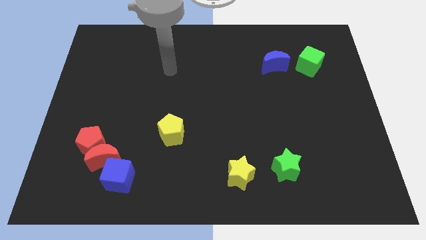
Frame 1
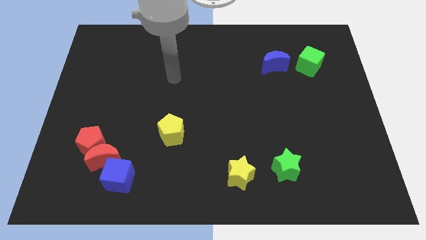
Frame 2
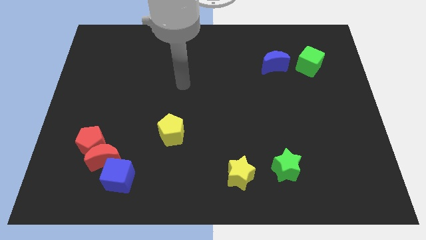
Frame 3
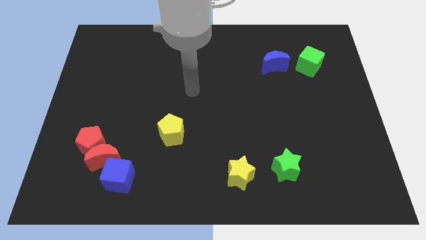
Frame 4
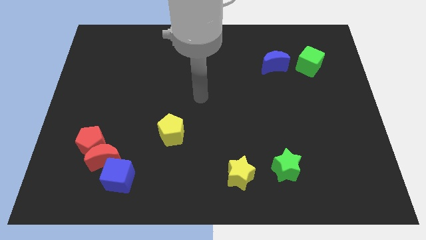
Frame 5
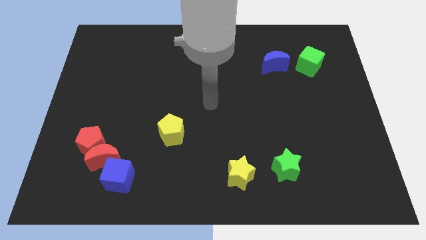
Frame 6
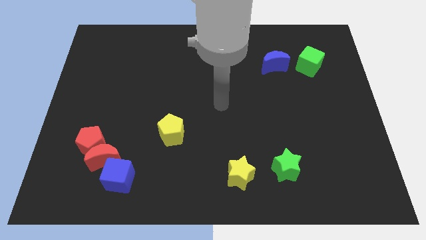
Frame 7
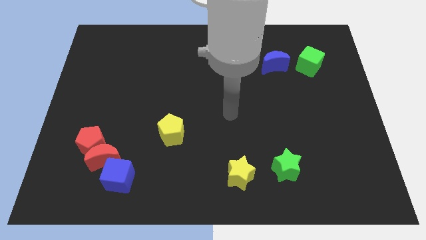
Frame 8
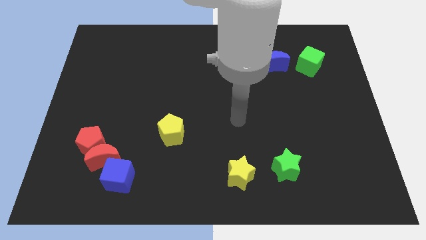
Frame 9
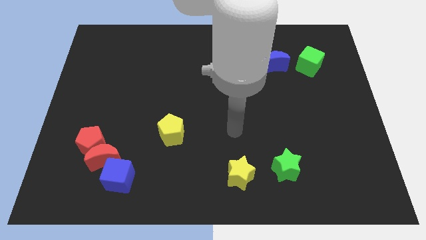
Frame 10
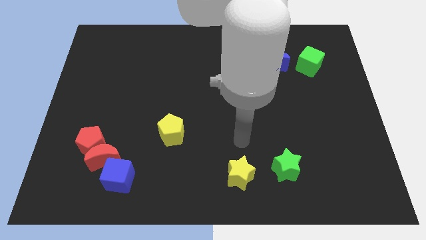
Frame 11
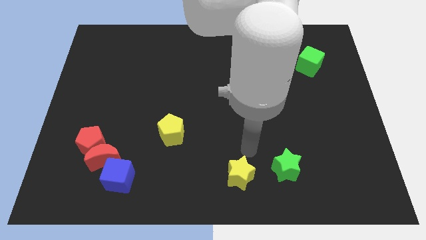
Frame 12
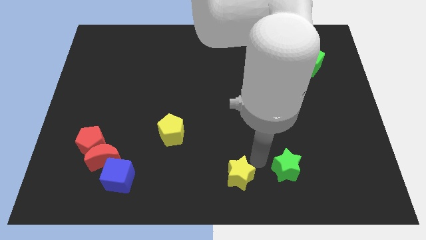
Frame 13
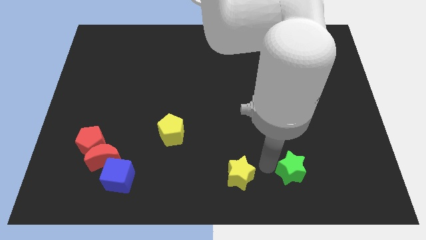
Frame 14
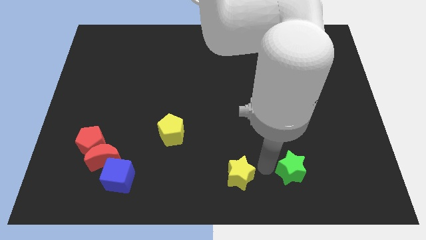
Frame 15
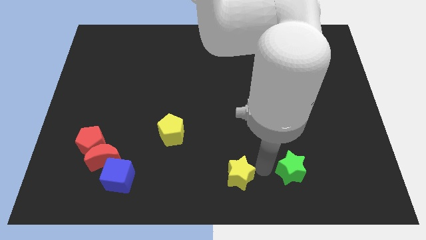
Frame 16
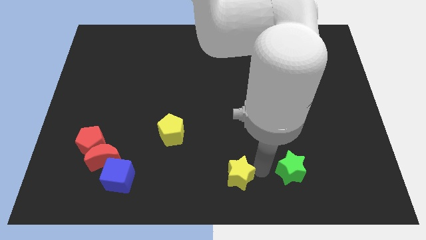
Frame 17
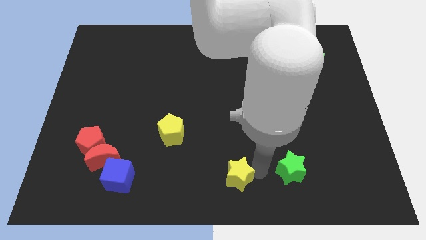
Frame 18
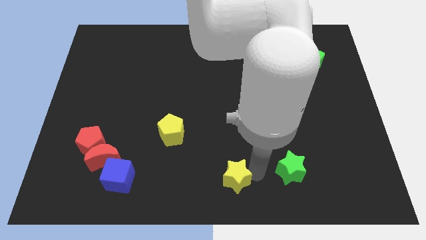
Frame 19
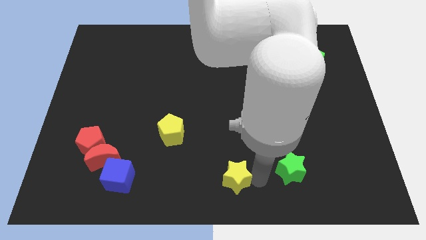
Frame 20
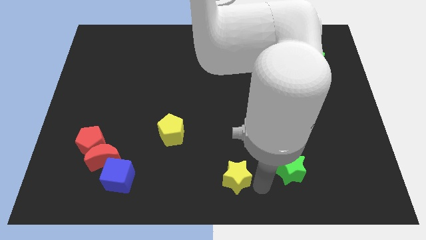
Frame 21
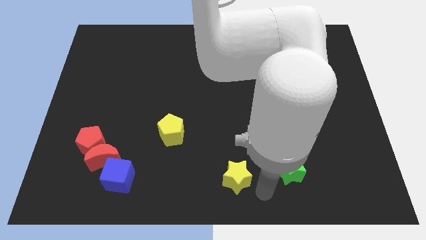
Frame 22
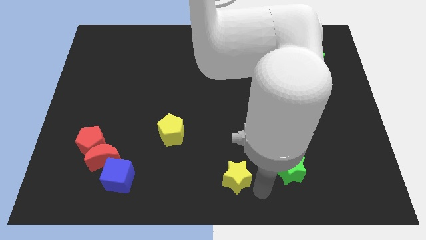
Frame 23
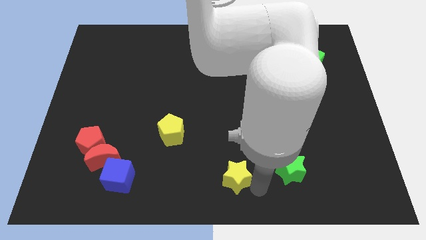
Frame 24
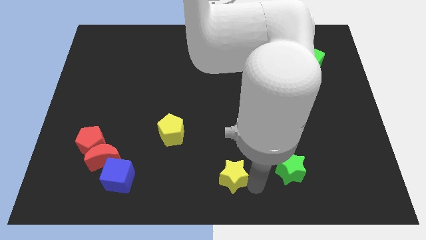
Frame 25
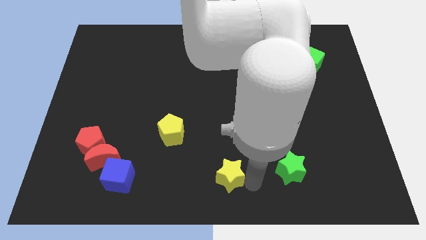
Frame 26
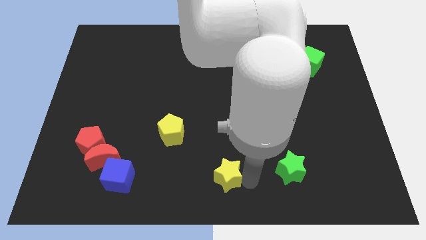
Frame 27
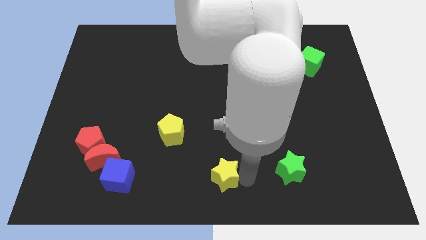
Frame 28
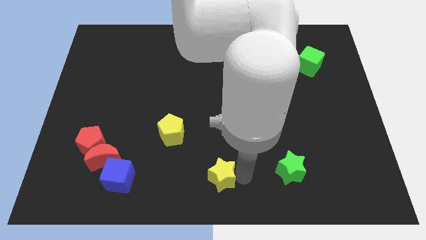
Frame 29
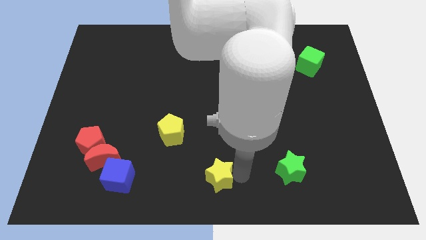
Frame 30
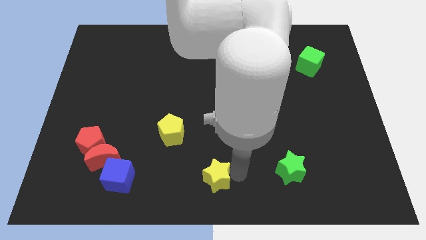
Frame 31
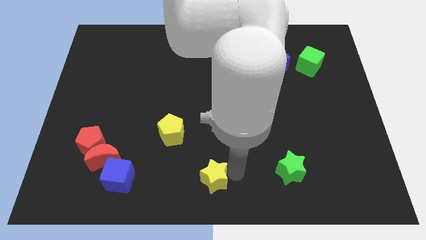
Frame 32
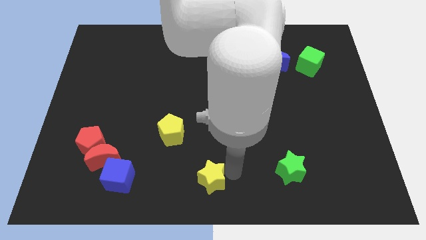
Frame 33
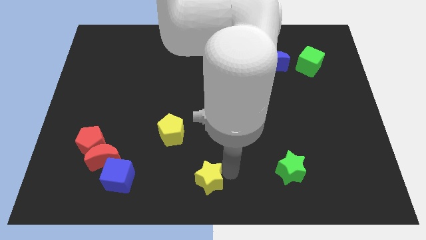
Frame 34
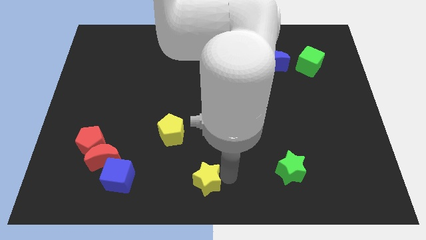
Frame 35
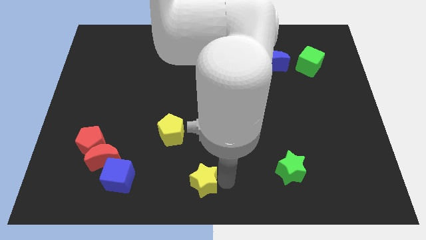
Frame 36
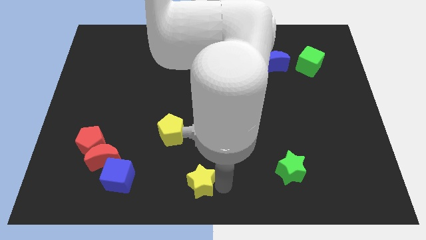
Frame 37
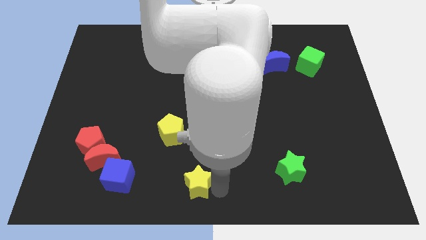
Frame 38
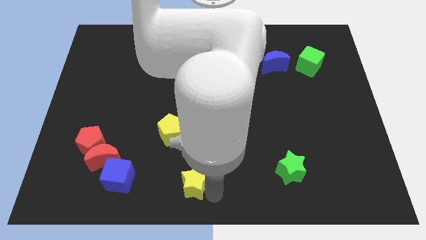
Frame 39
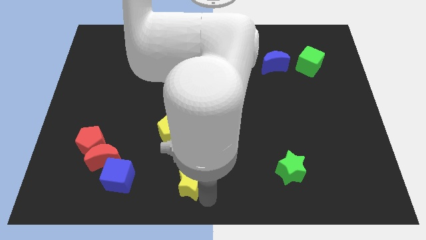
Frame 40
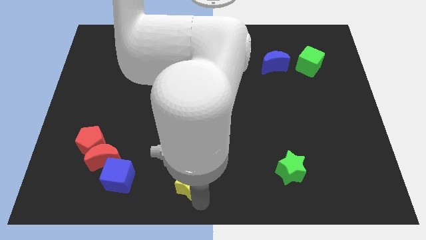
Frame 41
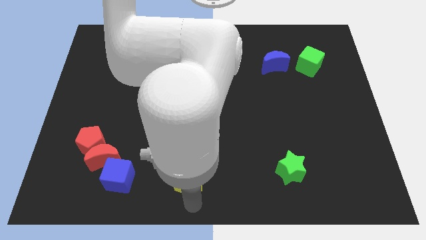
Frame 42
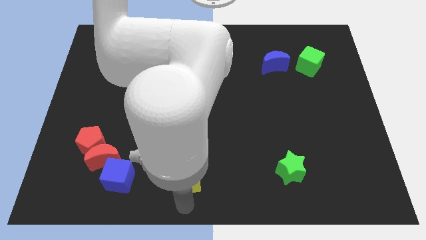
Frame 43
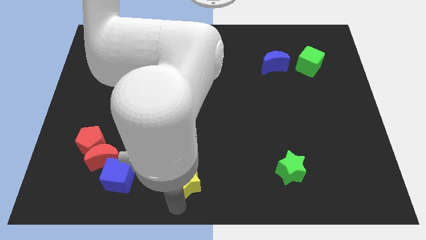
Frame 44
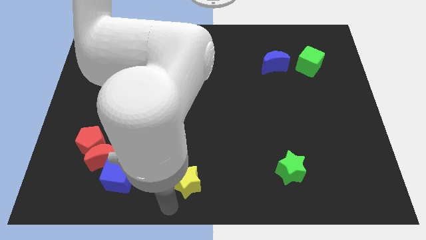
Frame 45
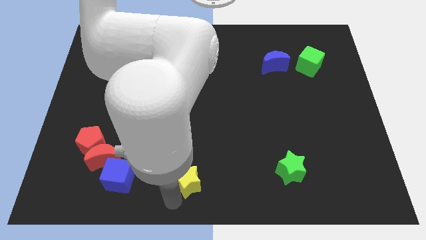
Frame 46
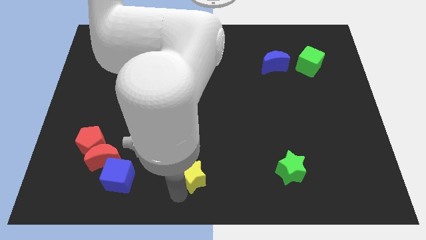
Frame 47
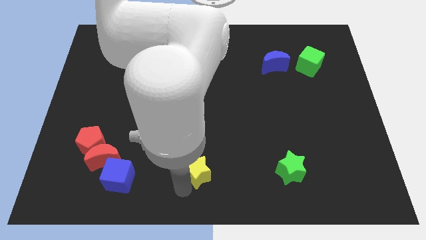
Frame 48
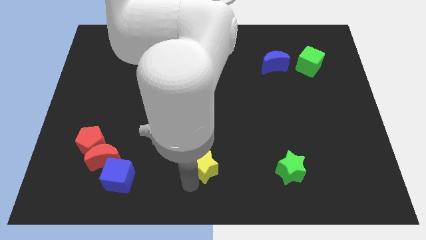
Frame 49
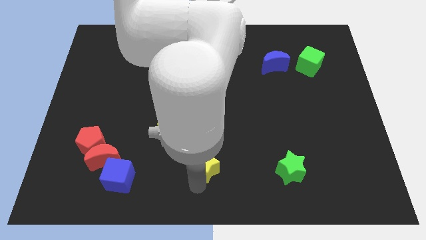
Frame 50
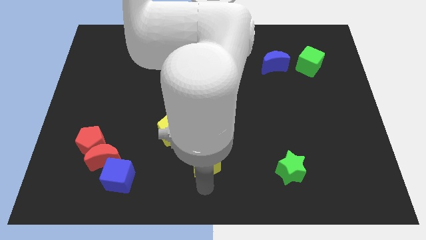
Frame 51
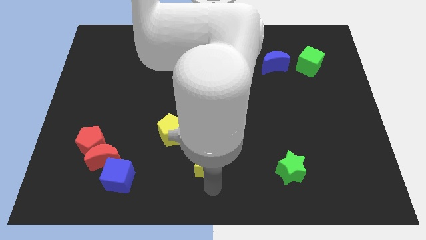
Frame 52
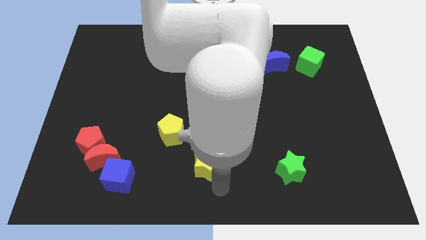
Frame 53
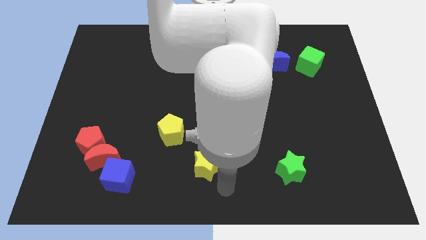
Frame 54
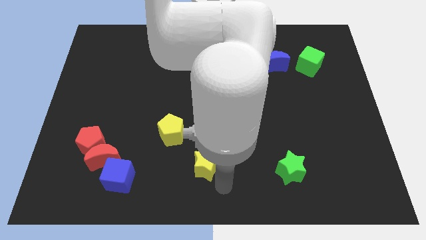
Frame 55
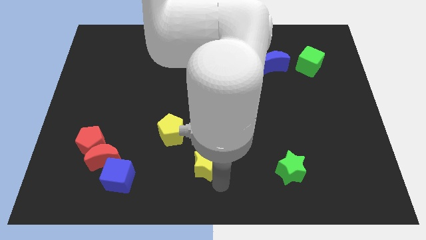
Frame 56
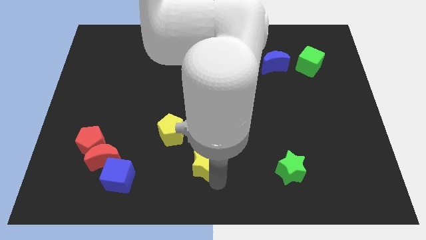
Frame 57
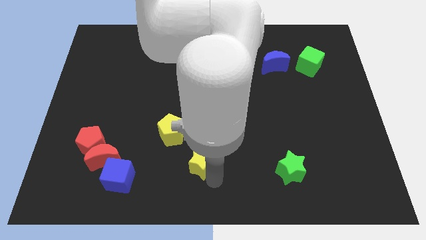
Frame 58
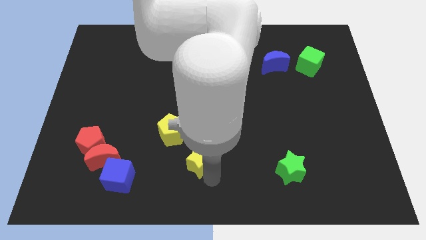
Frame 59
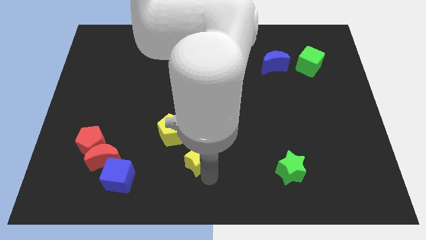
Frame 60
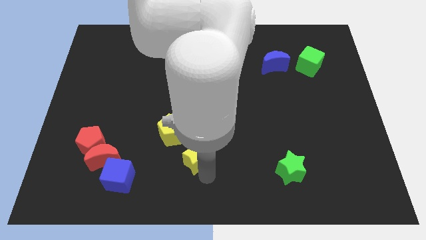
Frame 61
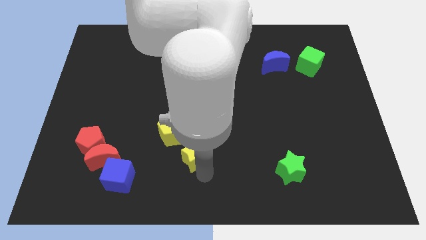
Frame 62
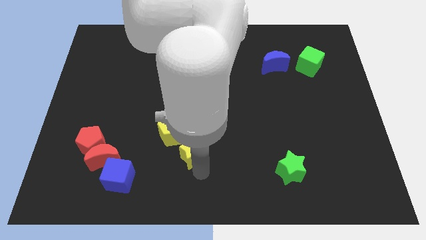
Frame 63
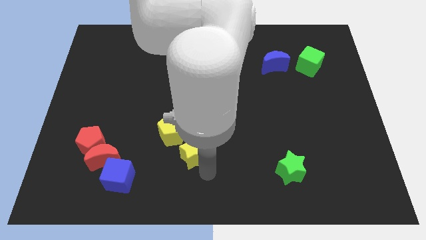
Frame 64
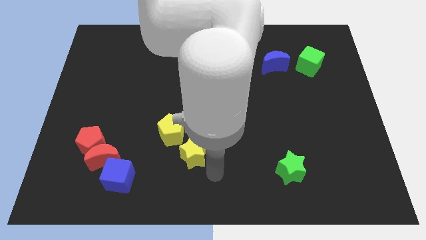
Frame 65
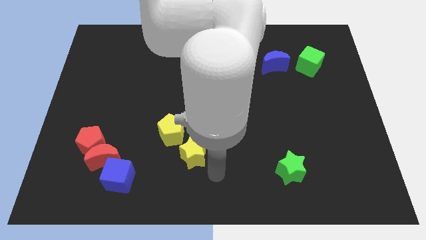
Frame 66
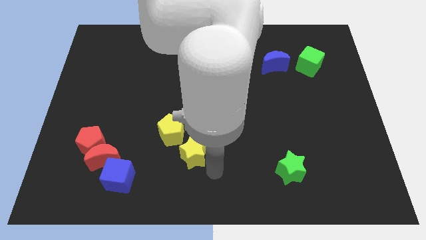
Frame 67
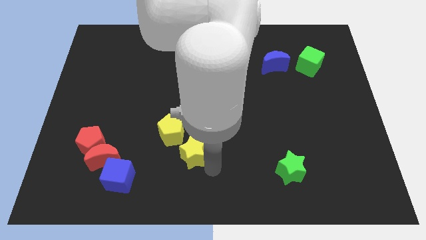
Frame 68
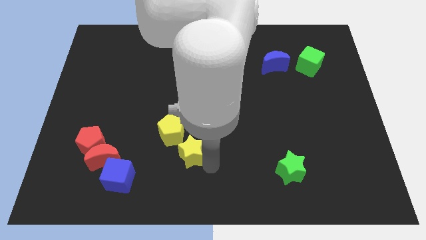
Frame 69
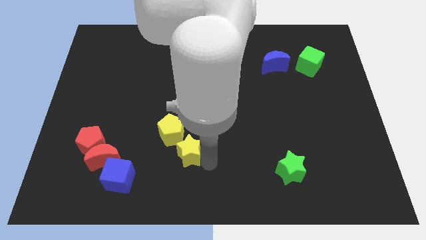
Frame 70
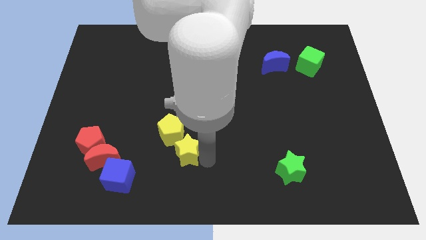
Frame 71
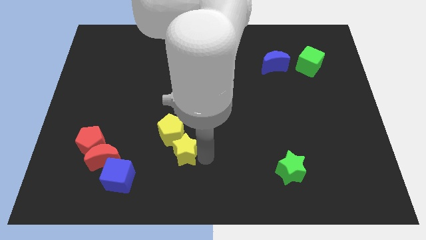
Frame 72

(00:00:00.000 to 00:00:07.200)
move the yellow star towards the yellow pentagon
